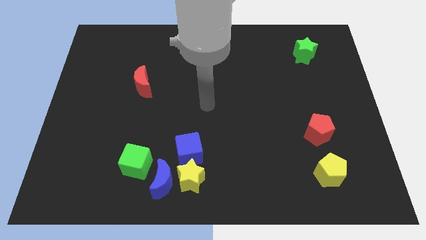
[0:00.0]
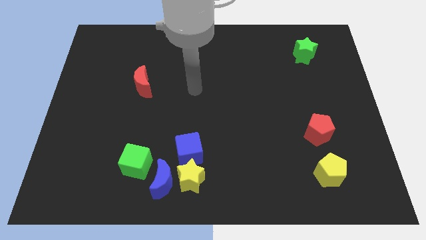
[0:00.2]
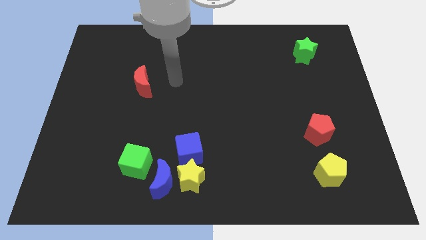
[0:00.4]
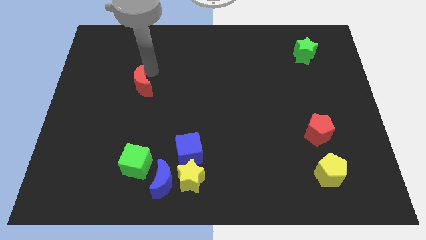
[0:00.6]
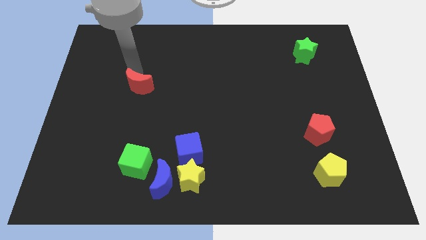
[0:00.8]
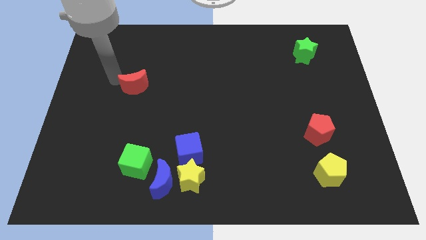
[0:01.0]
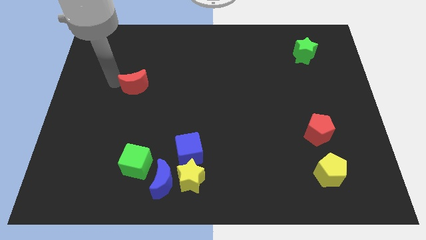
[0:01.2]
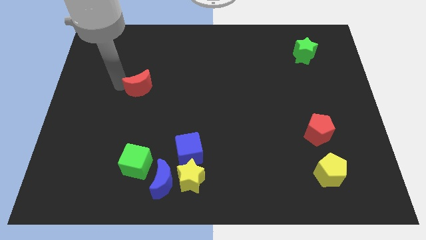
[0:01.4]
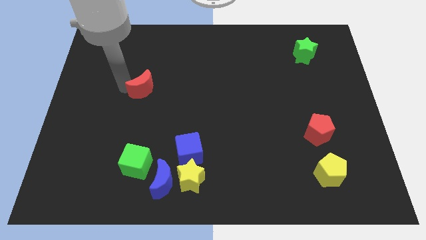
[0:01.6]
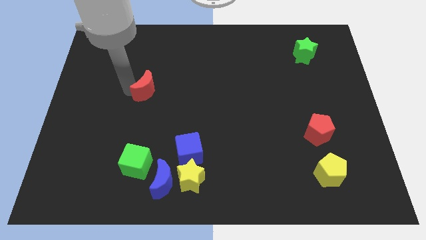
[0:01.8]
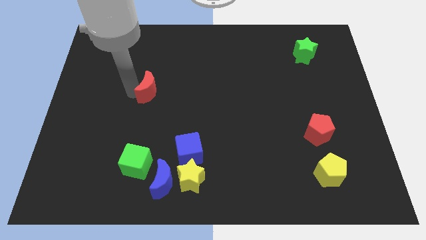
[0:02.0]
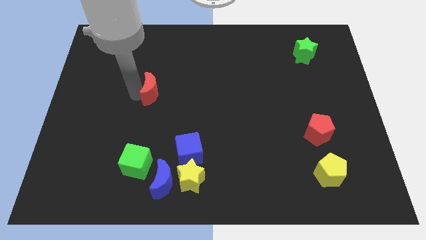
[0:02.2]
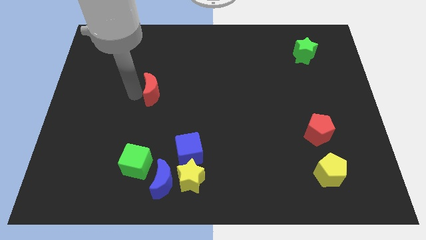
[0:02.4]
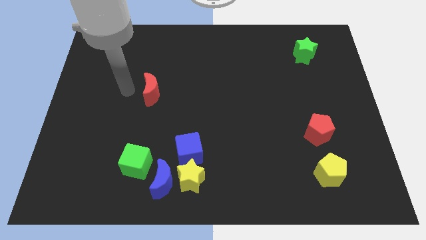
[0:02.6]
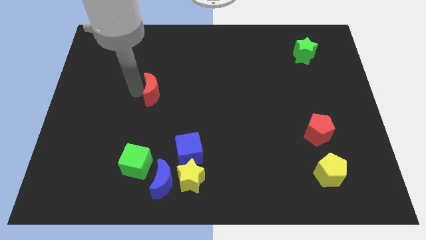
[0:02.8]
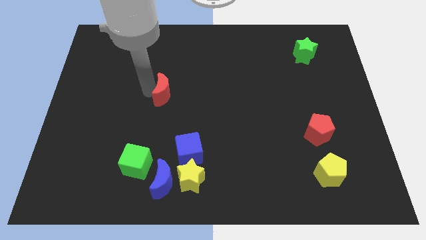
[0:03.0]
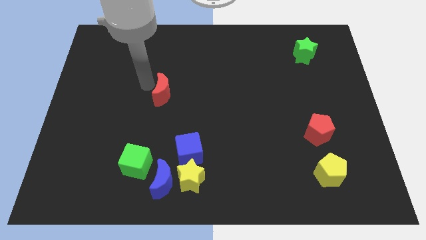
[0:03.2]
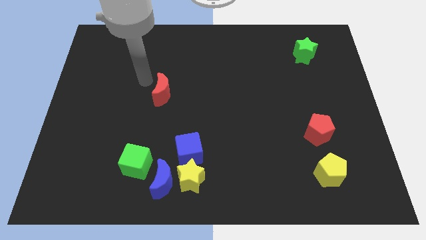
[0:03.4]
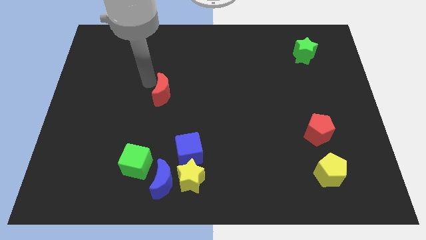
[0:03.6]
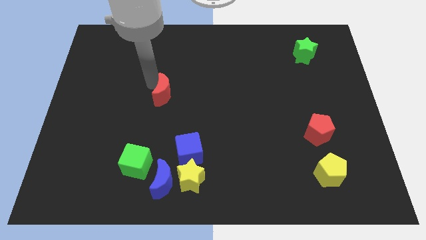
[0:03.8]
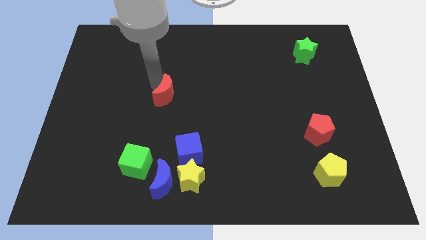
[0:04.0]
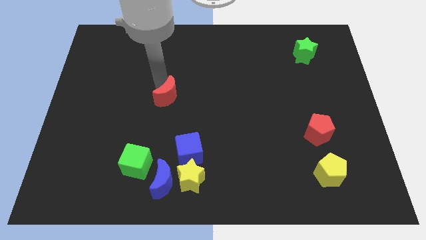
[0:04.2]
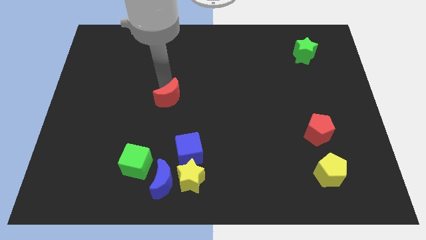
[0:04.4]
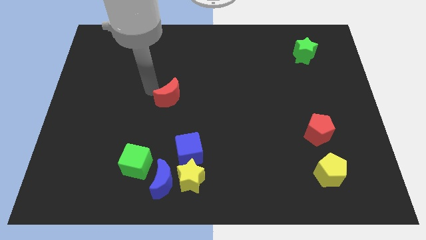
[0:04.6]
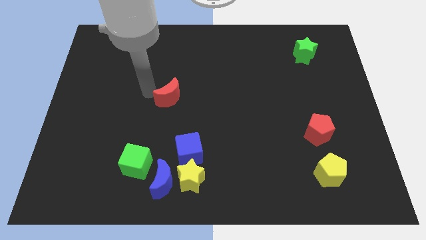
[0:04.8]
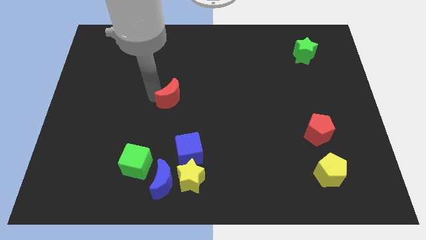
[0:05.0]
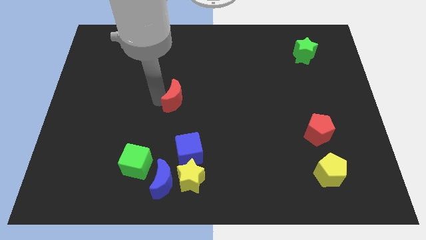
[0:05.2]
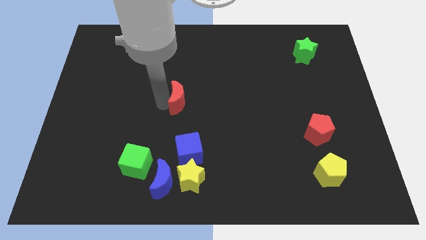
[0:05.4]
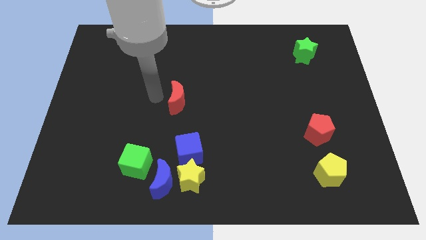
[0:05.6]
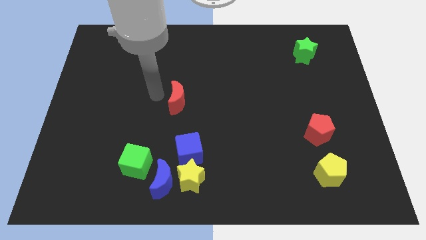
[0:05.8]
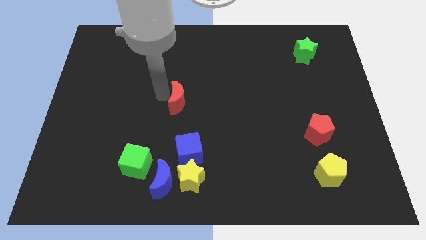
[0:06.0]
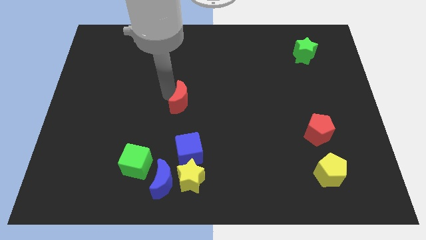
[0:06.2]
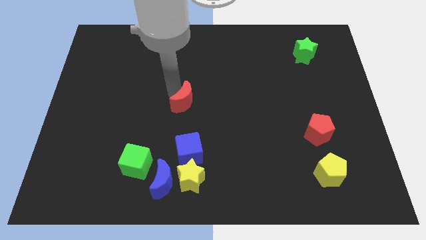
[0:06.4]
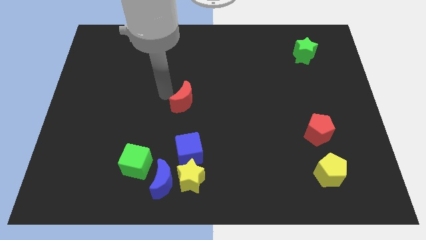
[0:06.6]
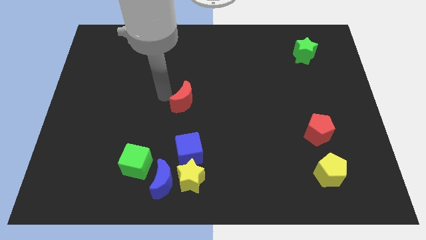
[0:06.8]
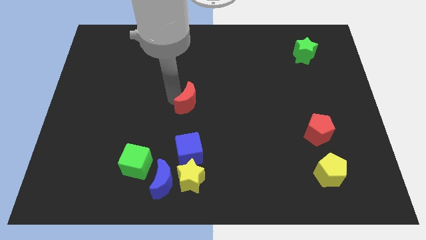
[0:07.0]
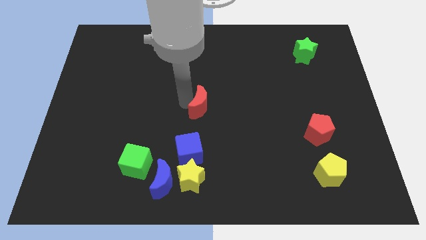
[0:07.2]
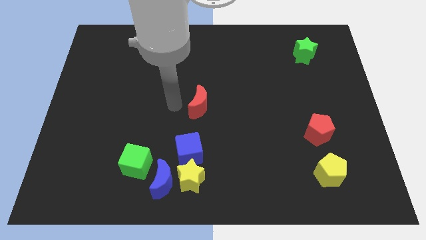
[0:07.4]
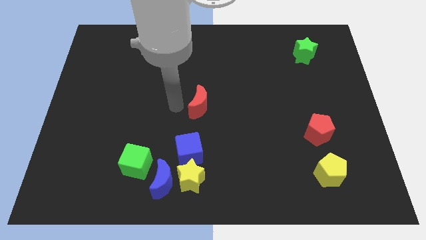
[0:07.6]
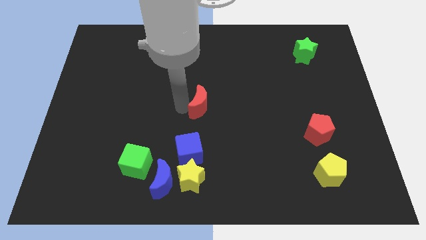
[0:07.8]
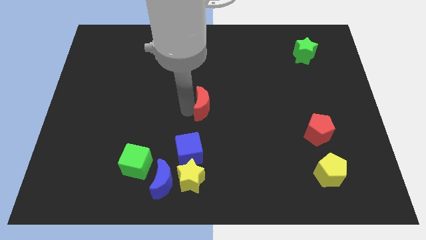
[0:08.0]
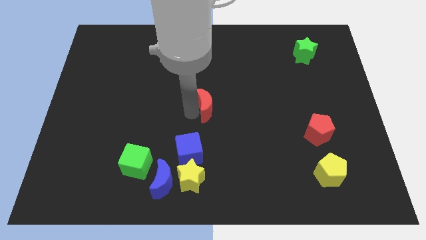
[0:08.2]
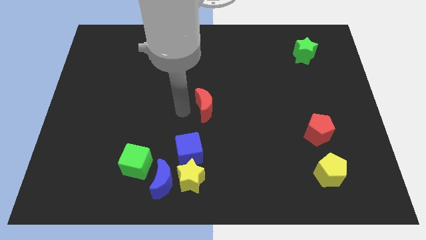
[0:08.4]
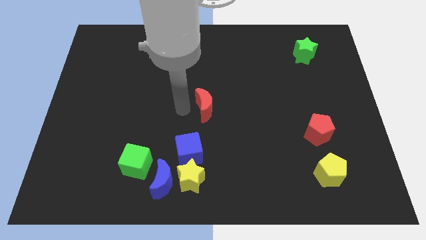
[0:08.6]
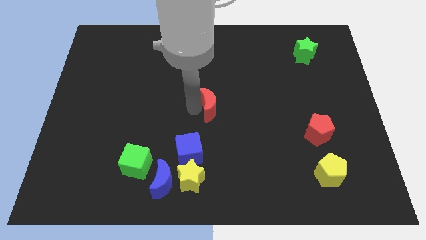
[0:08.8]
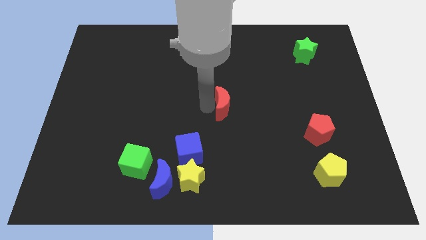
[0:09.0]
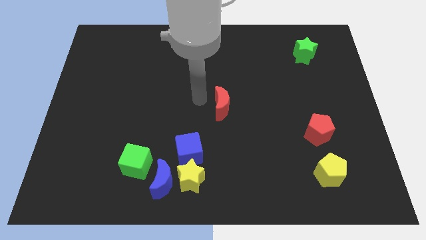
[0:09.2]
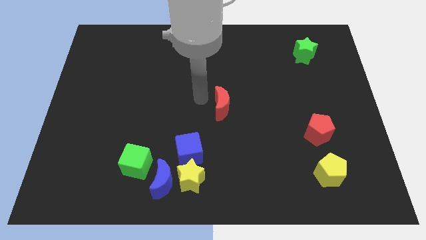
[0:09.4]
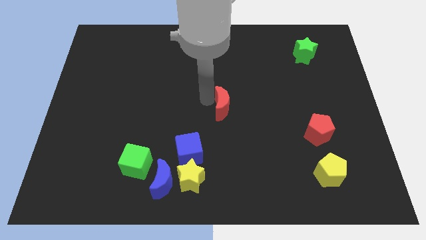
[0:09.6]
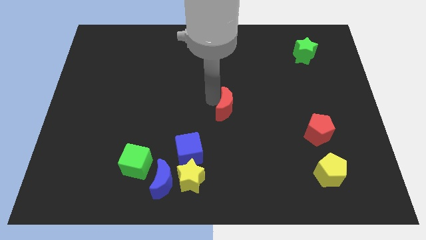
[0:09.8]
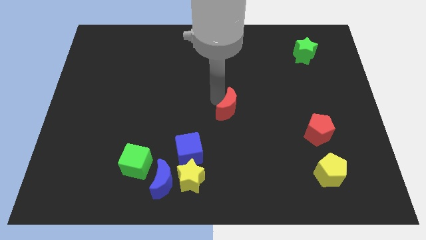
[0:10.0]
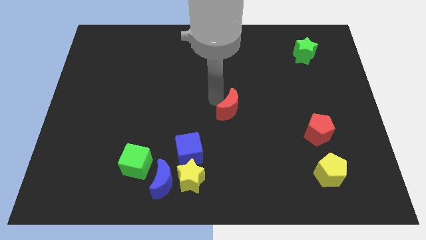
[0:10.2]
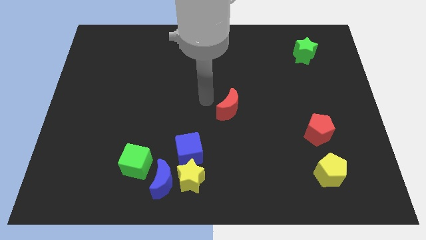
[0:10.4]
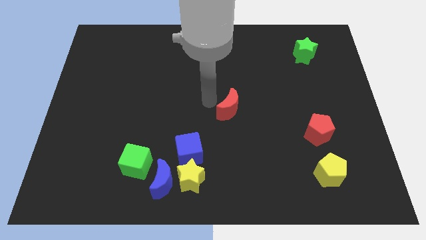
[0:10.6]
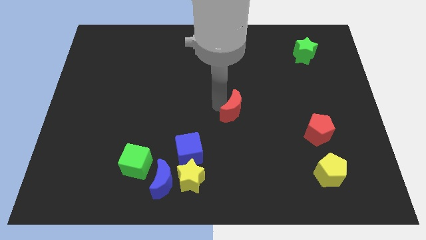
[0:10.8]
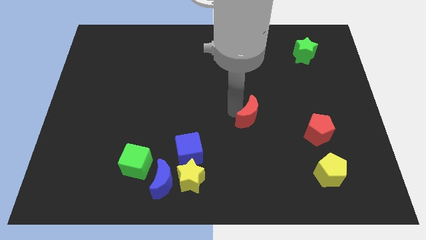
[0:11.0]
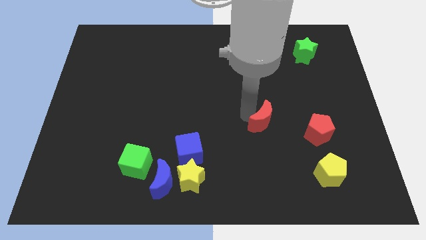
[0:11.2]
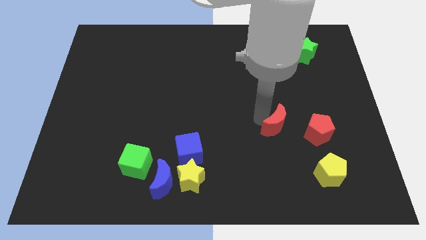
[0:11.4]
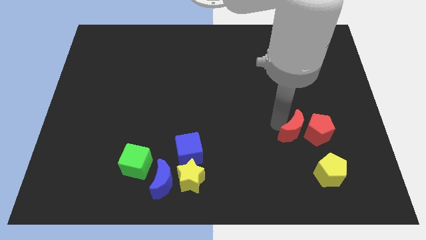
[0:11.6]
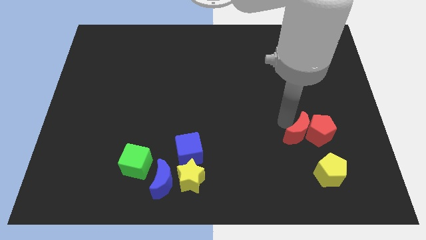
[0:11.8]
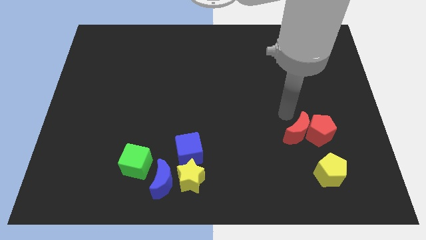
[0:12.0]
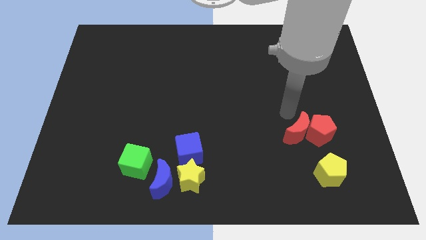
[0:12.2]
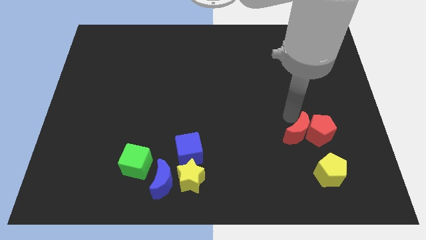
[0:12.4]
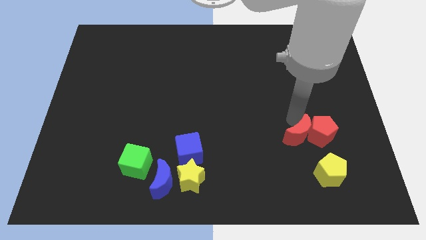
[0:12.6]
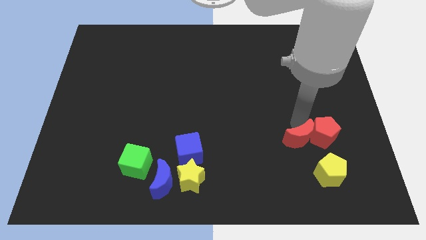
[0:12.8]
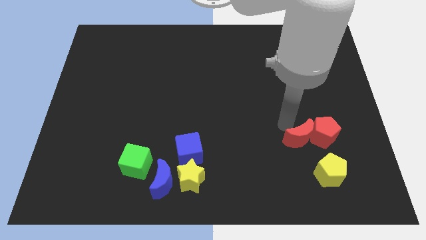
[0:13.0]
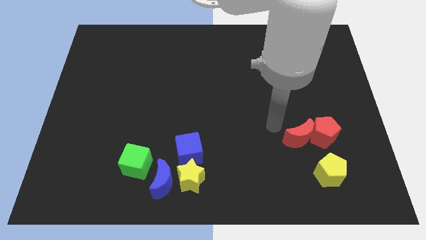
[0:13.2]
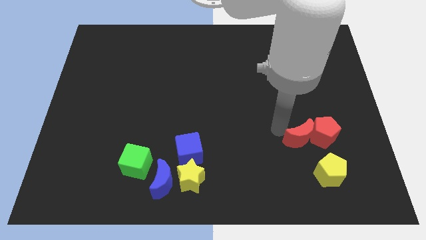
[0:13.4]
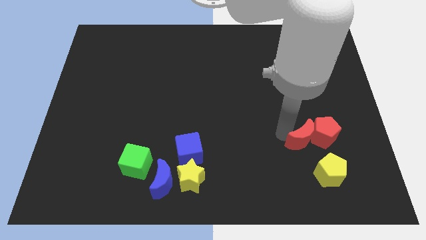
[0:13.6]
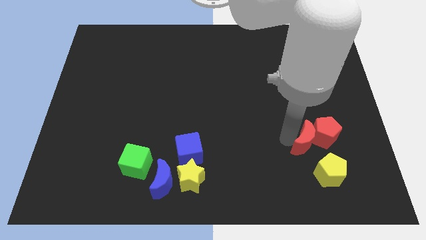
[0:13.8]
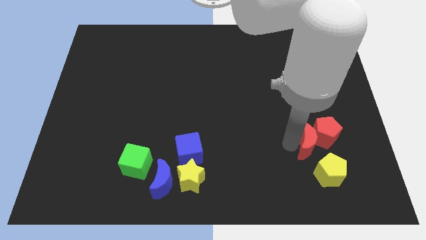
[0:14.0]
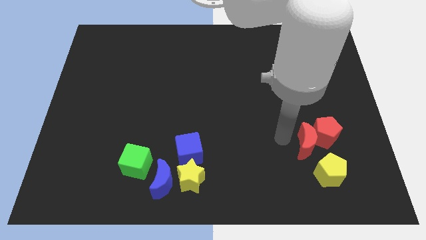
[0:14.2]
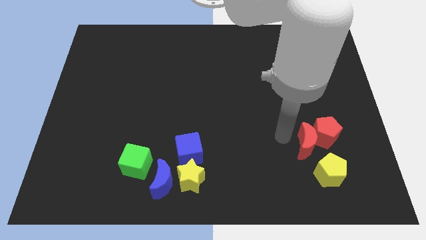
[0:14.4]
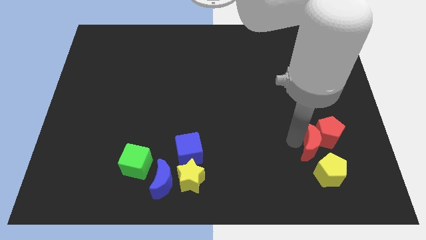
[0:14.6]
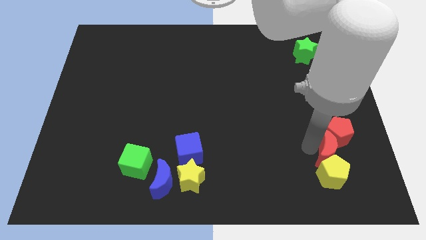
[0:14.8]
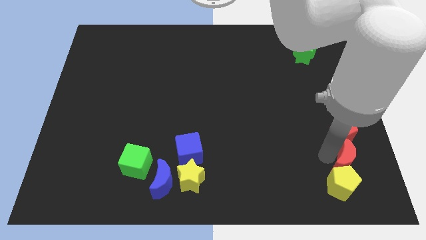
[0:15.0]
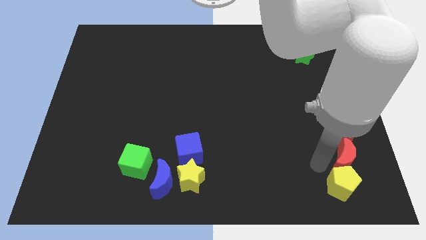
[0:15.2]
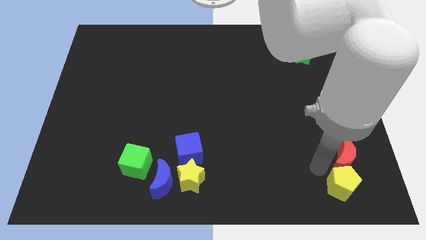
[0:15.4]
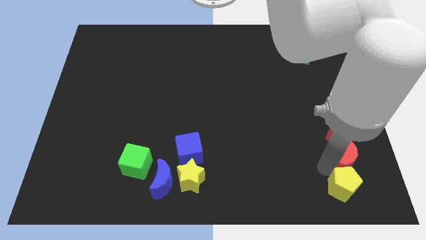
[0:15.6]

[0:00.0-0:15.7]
put the red moon to the bottom right of the red pentagon

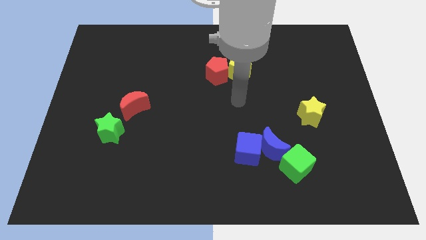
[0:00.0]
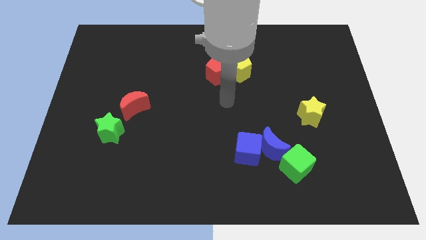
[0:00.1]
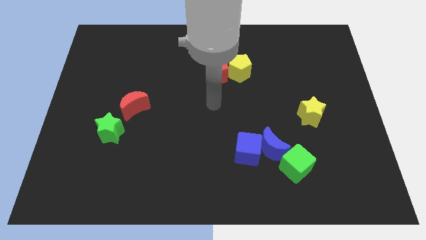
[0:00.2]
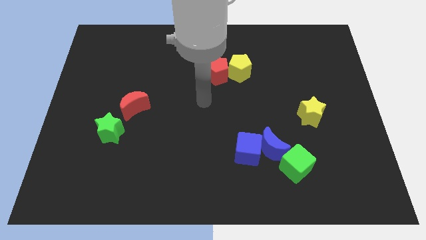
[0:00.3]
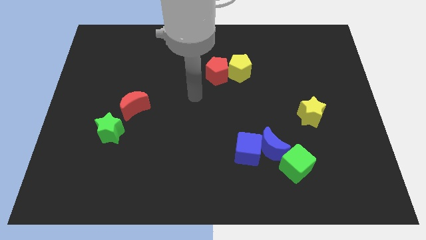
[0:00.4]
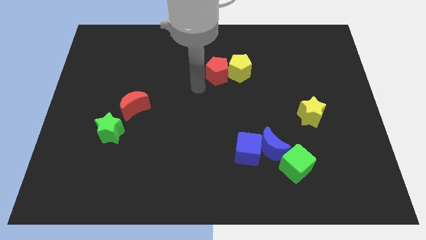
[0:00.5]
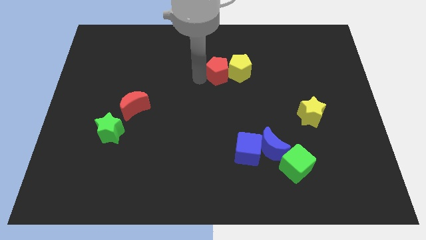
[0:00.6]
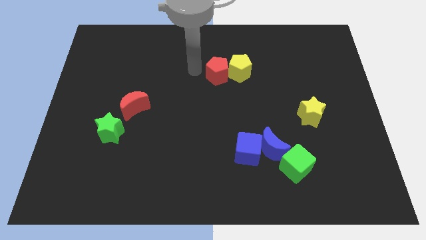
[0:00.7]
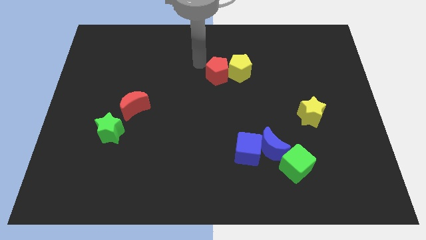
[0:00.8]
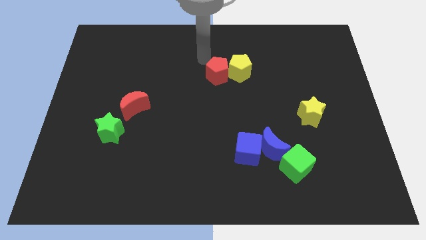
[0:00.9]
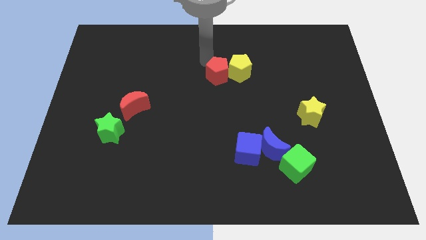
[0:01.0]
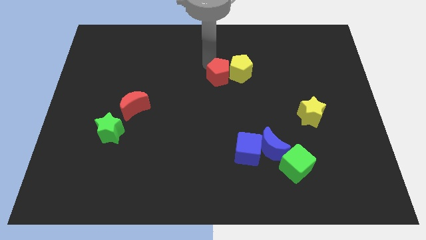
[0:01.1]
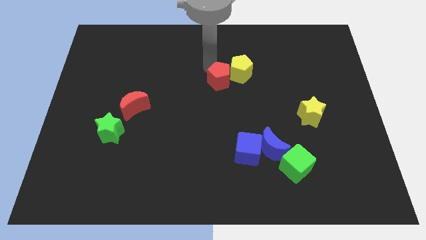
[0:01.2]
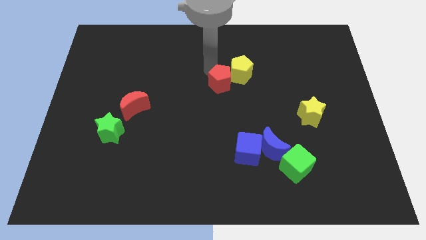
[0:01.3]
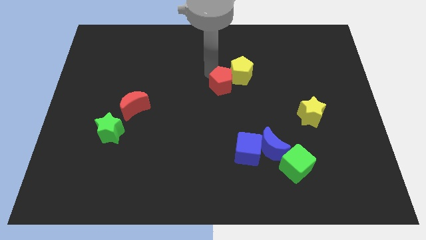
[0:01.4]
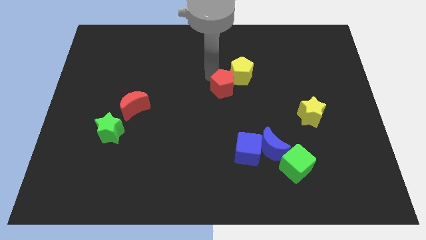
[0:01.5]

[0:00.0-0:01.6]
slide the red pentagon to the bottom side of the yellow pentagon
